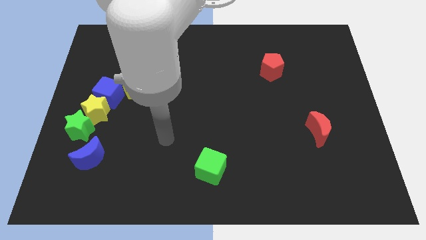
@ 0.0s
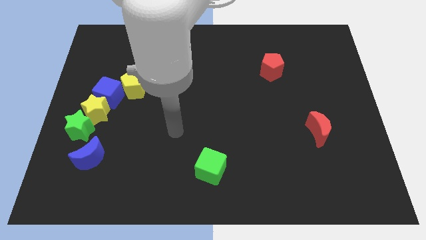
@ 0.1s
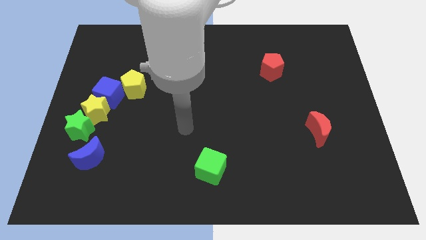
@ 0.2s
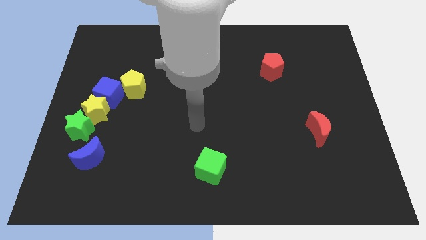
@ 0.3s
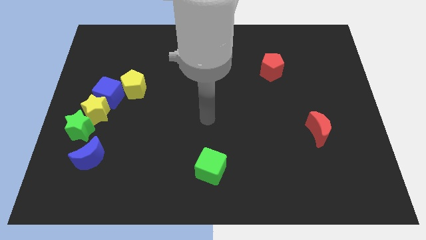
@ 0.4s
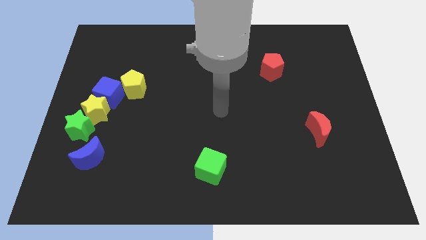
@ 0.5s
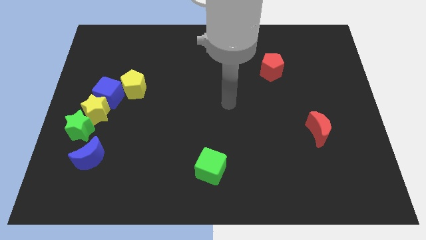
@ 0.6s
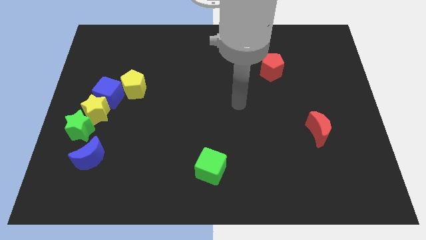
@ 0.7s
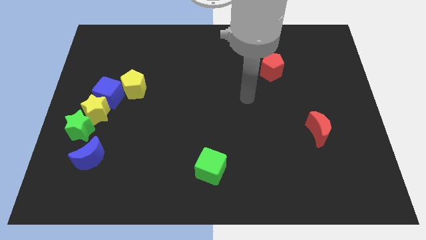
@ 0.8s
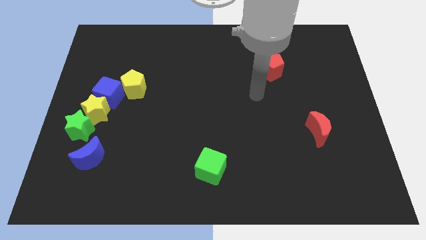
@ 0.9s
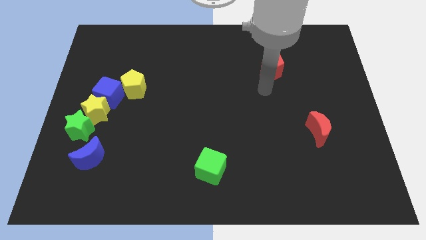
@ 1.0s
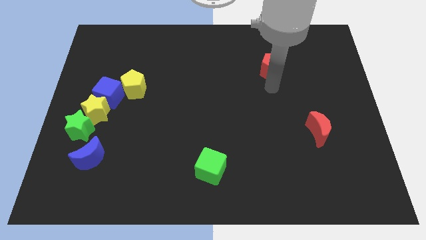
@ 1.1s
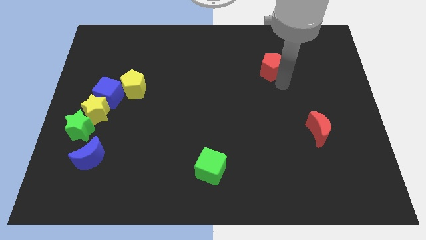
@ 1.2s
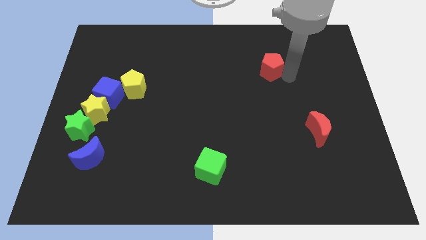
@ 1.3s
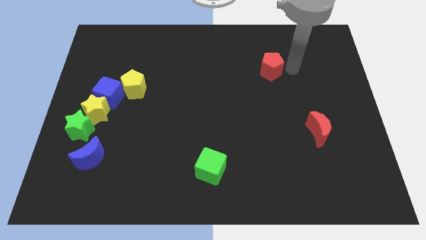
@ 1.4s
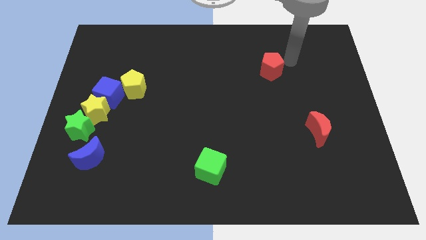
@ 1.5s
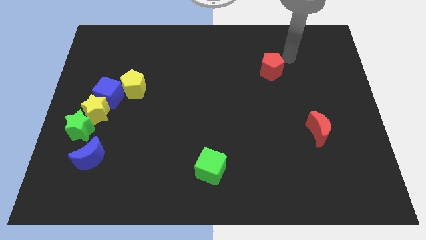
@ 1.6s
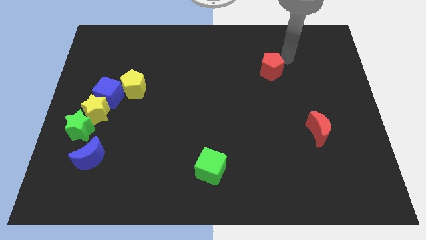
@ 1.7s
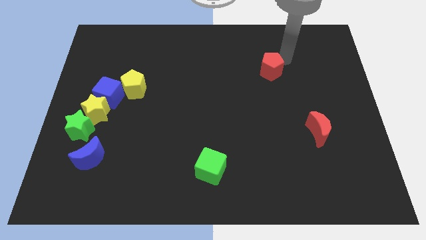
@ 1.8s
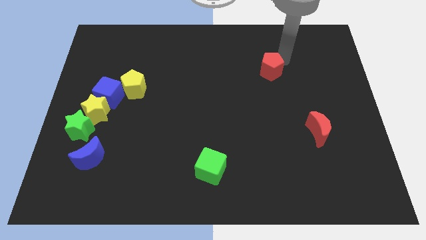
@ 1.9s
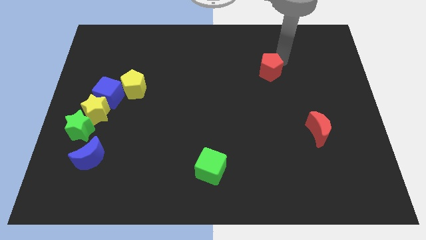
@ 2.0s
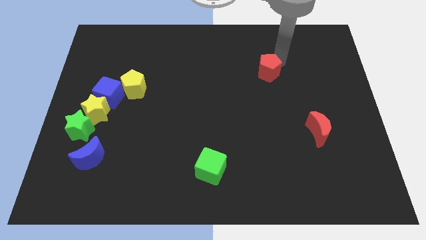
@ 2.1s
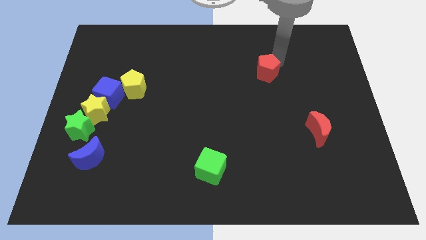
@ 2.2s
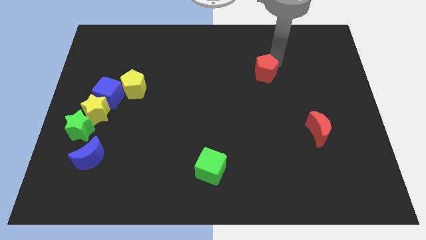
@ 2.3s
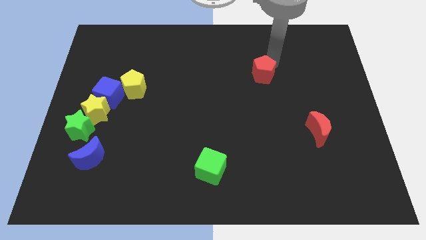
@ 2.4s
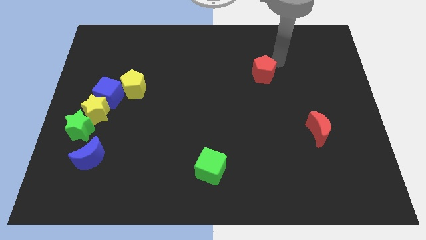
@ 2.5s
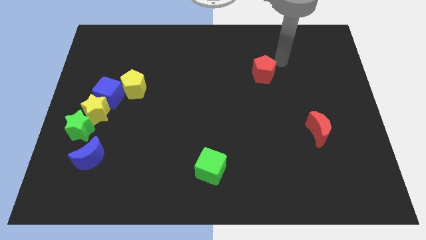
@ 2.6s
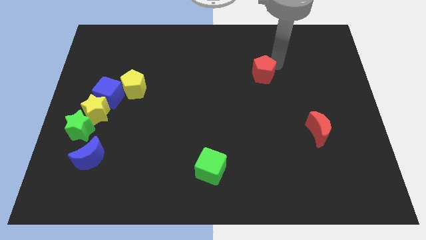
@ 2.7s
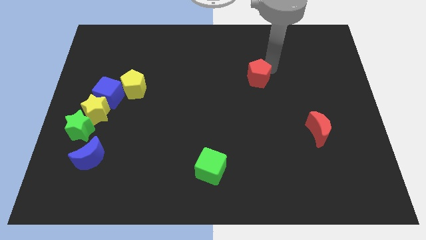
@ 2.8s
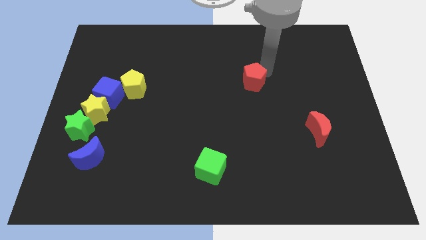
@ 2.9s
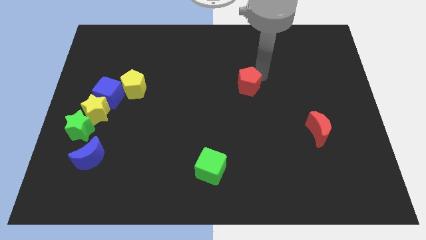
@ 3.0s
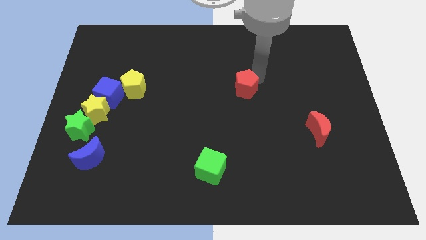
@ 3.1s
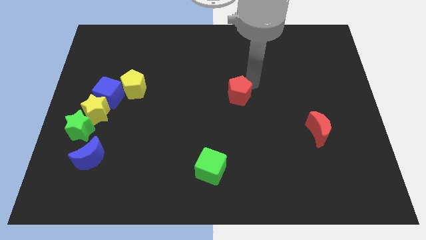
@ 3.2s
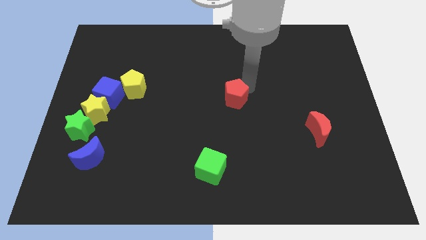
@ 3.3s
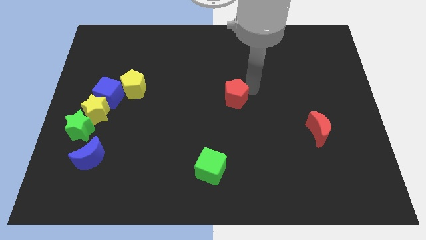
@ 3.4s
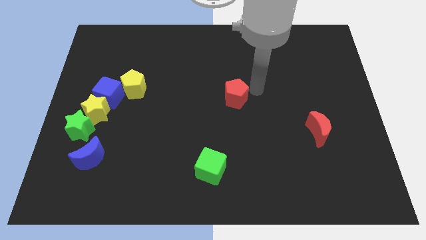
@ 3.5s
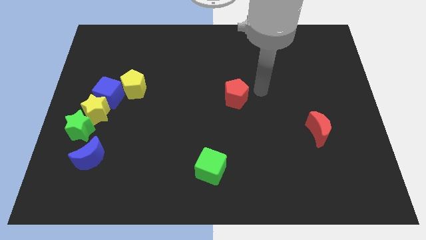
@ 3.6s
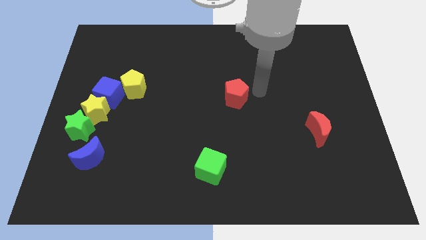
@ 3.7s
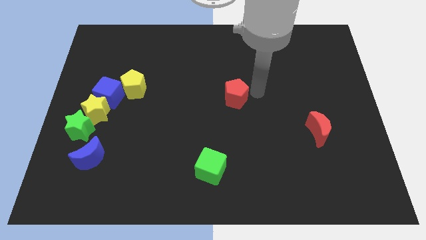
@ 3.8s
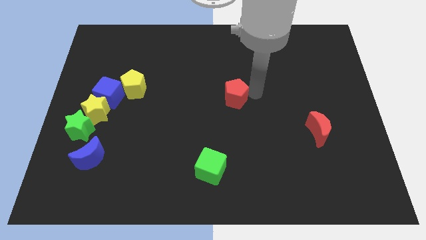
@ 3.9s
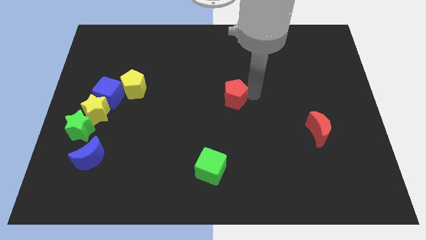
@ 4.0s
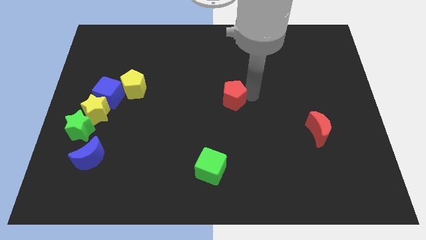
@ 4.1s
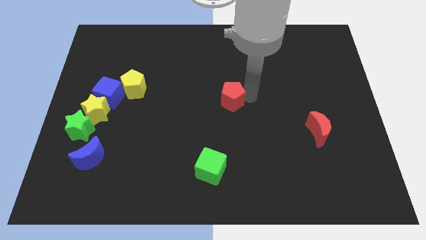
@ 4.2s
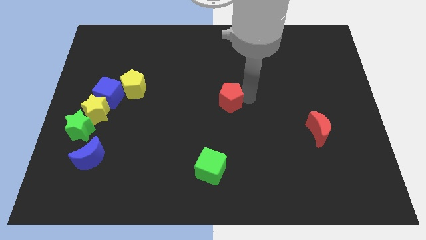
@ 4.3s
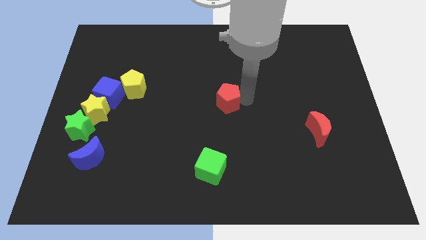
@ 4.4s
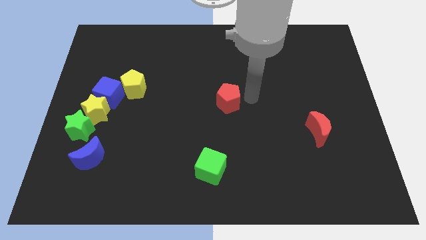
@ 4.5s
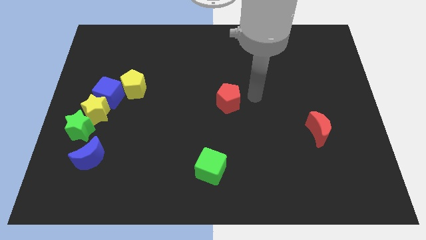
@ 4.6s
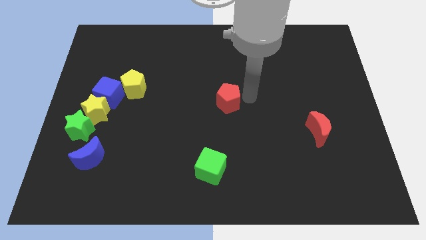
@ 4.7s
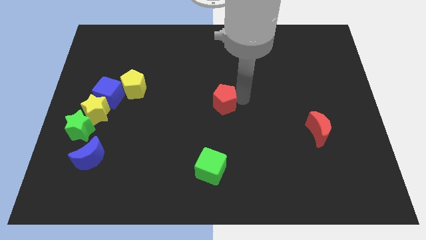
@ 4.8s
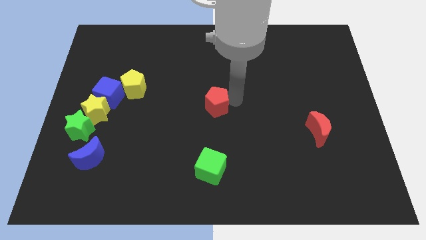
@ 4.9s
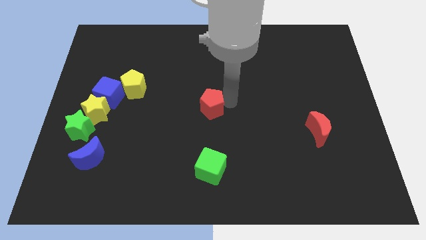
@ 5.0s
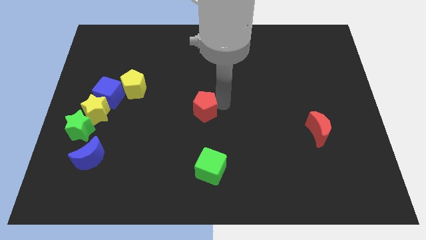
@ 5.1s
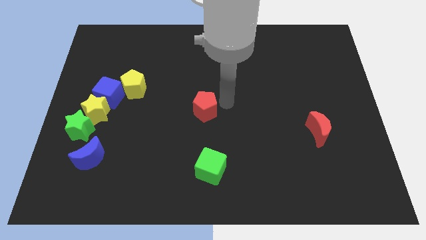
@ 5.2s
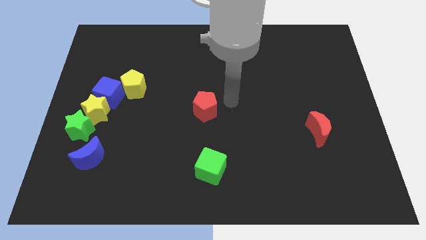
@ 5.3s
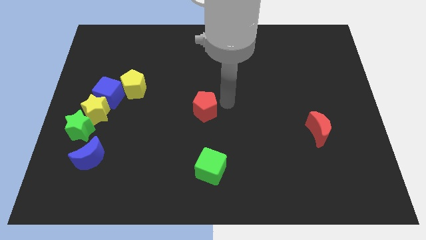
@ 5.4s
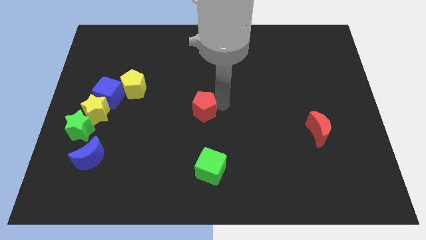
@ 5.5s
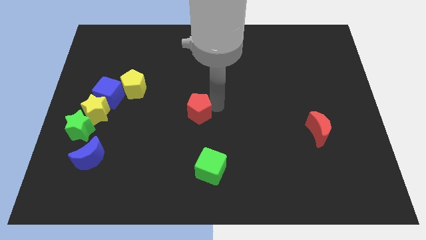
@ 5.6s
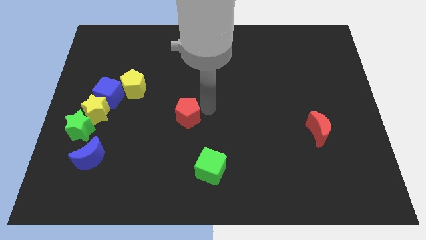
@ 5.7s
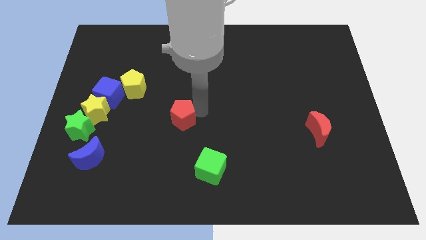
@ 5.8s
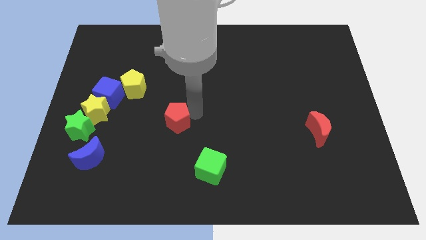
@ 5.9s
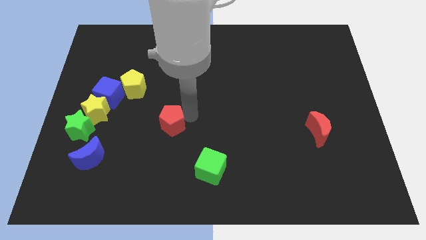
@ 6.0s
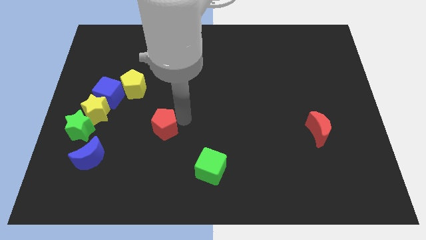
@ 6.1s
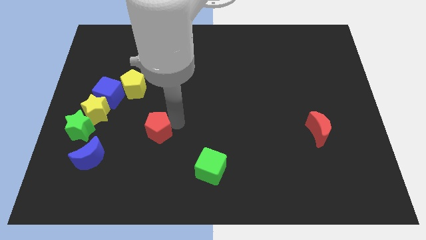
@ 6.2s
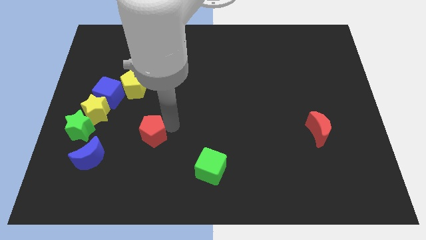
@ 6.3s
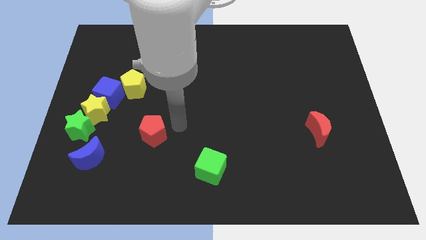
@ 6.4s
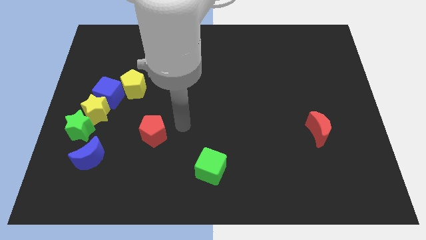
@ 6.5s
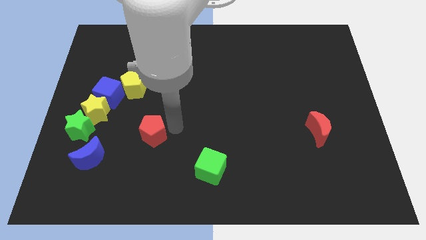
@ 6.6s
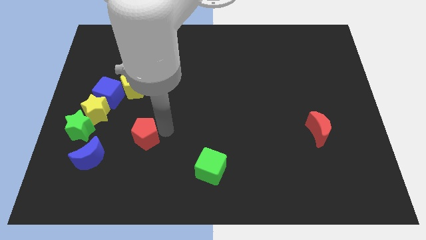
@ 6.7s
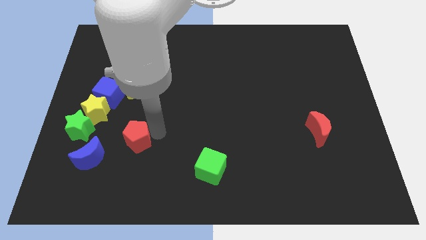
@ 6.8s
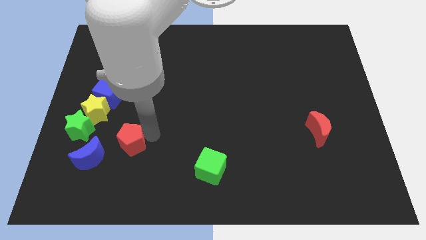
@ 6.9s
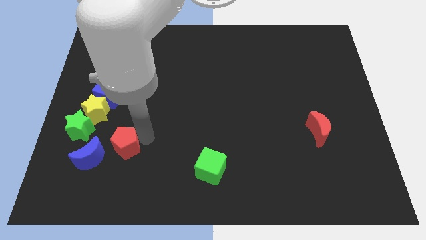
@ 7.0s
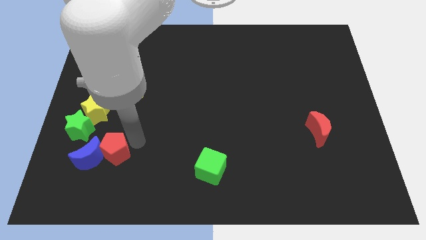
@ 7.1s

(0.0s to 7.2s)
move the red pentagon next to the blue moon
